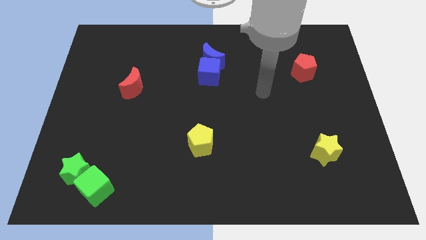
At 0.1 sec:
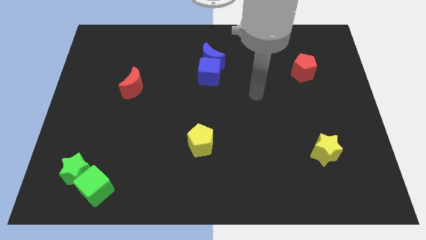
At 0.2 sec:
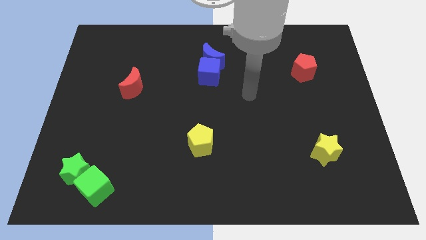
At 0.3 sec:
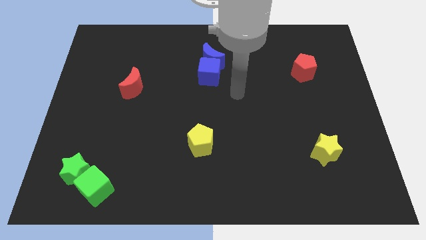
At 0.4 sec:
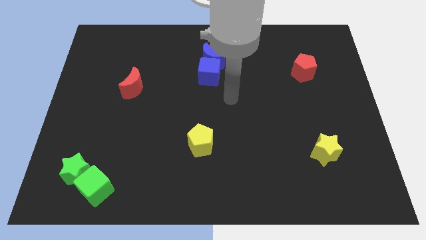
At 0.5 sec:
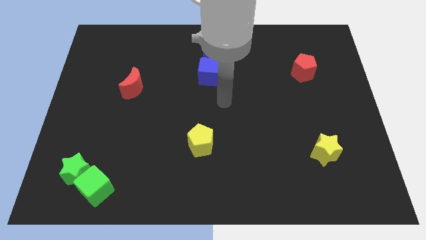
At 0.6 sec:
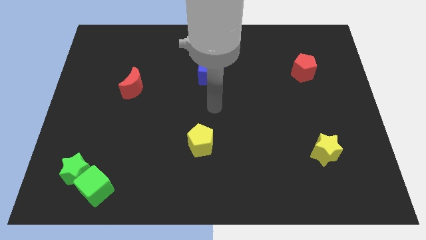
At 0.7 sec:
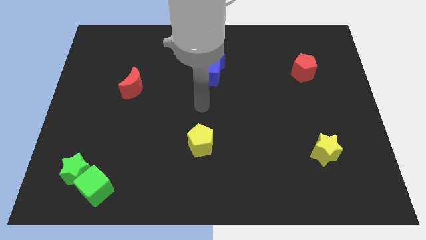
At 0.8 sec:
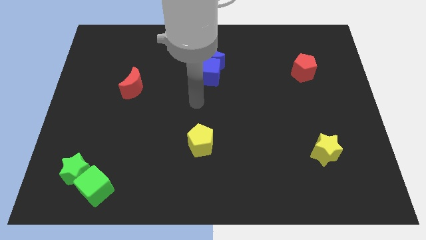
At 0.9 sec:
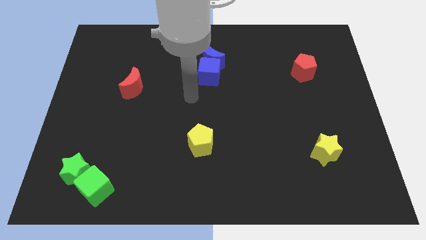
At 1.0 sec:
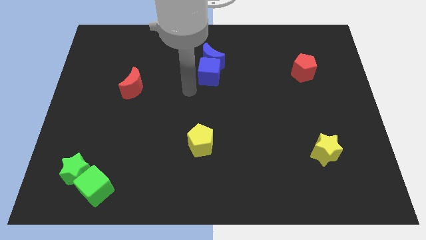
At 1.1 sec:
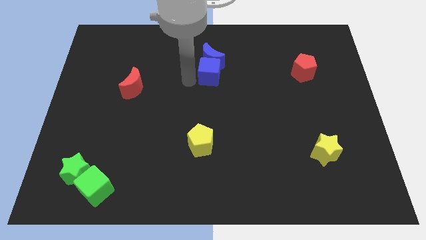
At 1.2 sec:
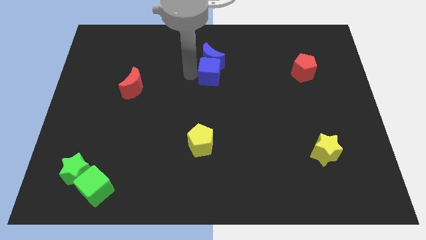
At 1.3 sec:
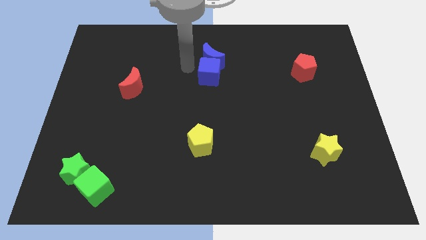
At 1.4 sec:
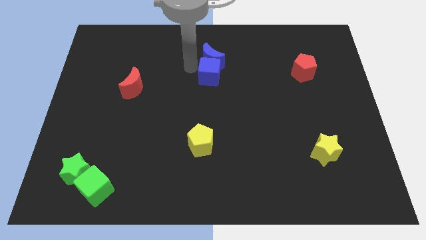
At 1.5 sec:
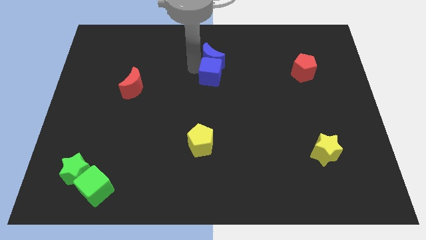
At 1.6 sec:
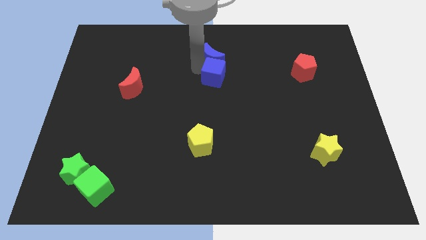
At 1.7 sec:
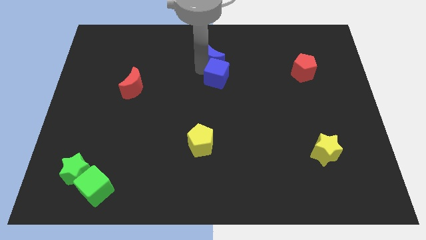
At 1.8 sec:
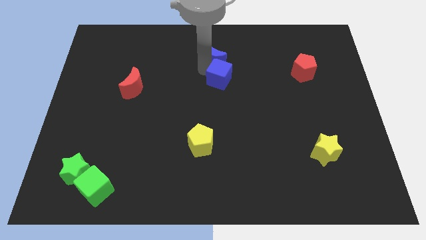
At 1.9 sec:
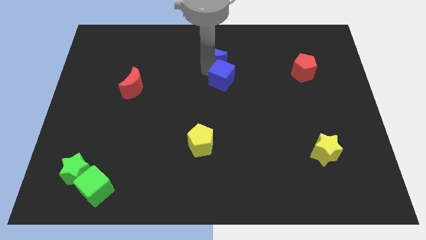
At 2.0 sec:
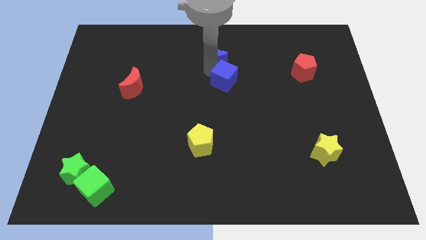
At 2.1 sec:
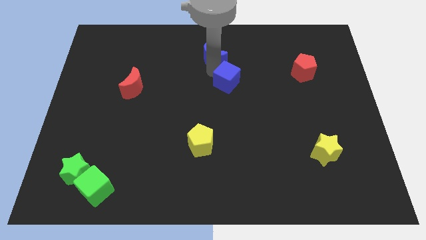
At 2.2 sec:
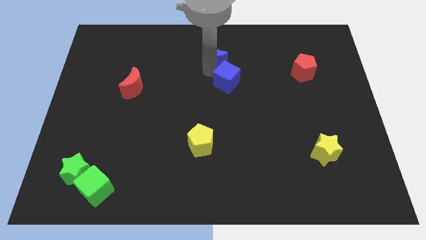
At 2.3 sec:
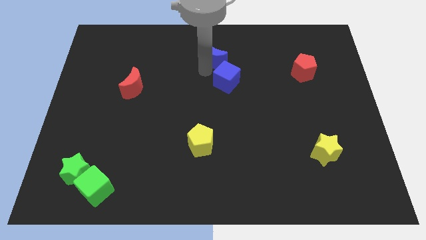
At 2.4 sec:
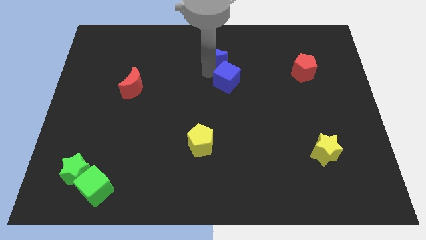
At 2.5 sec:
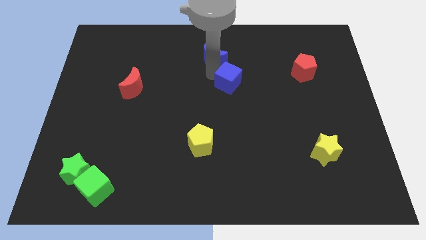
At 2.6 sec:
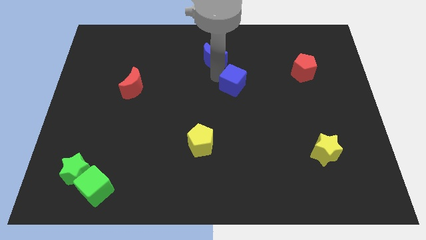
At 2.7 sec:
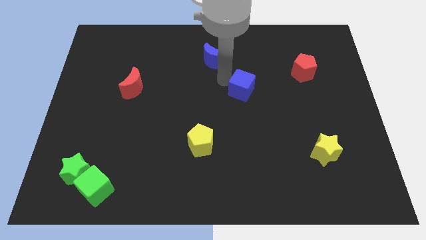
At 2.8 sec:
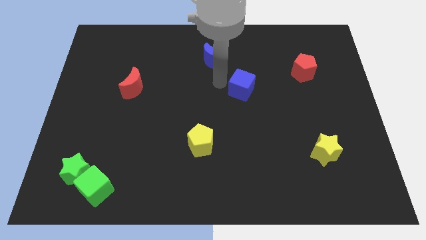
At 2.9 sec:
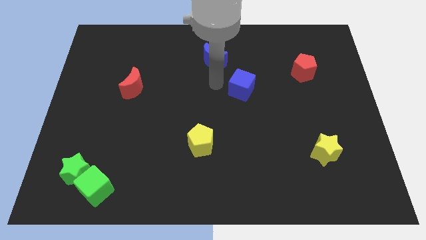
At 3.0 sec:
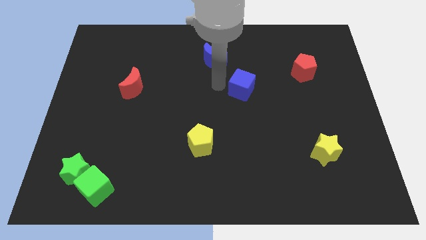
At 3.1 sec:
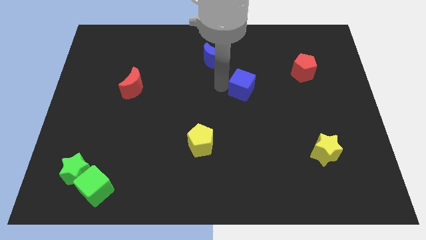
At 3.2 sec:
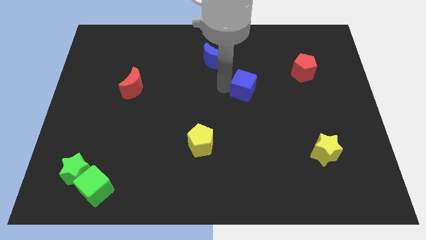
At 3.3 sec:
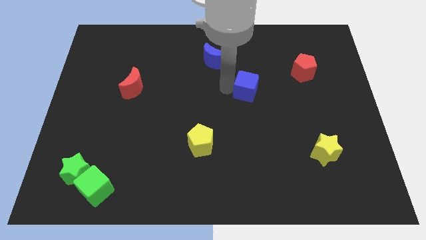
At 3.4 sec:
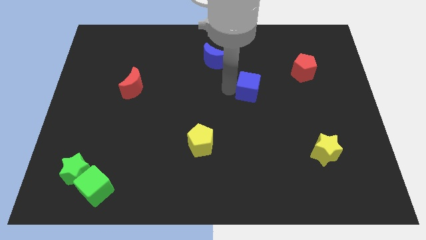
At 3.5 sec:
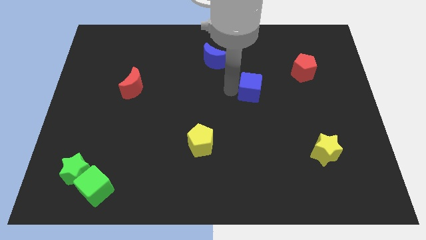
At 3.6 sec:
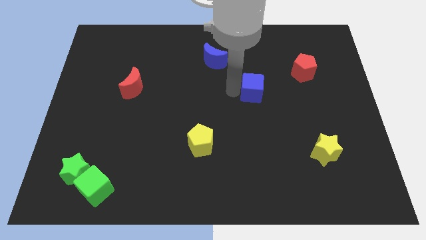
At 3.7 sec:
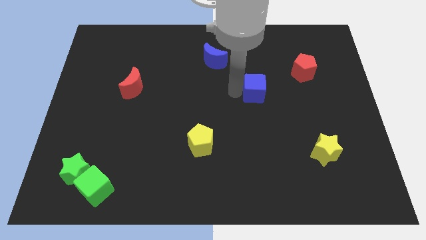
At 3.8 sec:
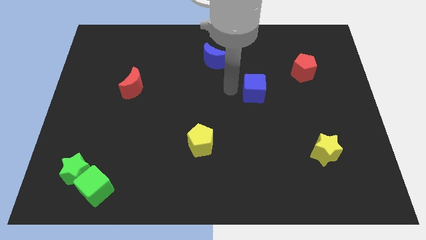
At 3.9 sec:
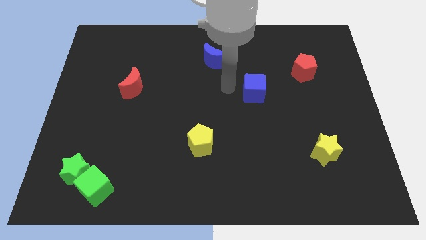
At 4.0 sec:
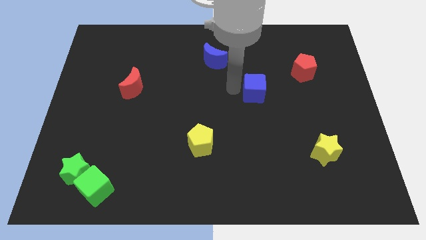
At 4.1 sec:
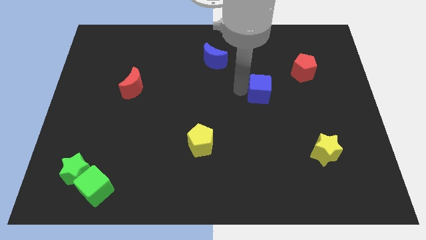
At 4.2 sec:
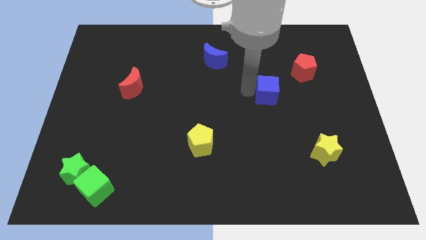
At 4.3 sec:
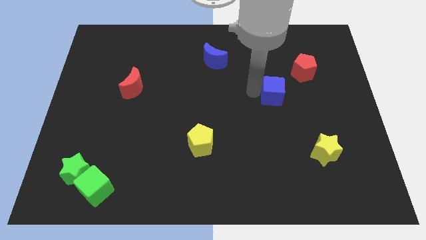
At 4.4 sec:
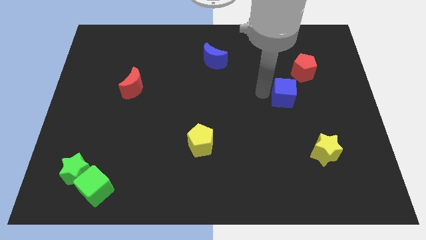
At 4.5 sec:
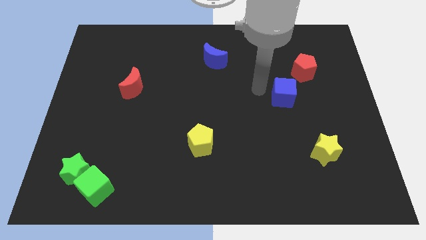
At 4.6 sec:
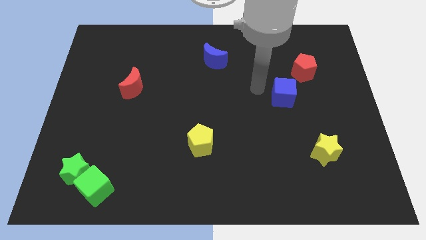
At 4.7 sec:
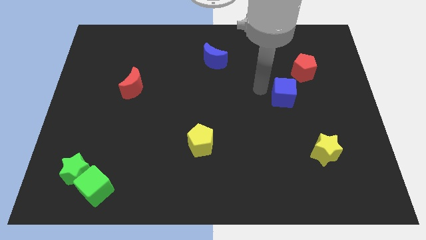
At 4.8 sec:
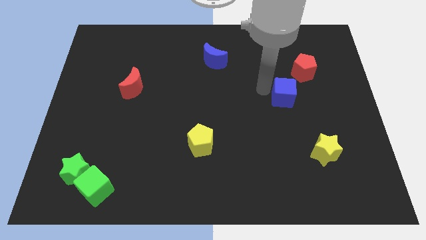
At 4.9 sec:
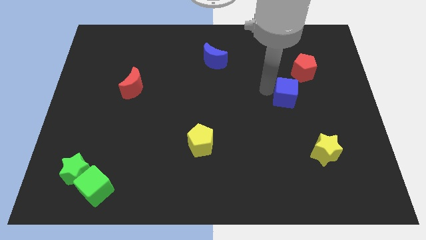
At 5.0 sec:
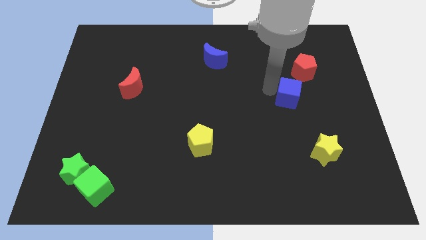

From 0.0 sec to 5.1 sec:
push the blue cube to the bottom side of the red pentagon

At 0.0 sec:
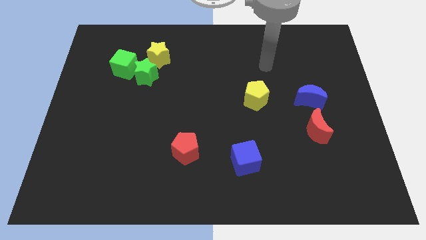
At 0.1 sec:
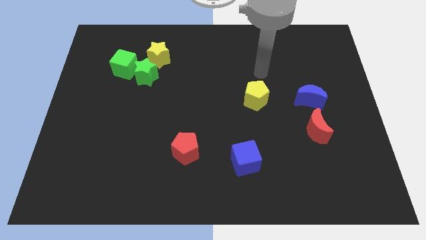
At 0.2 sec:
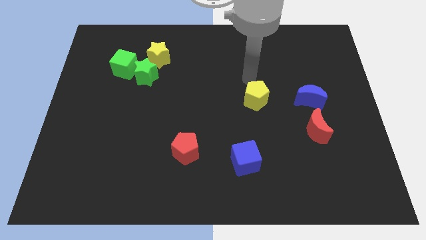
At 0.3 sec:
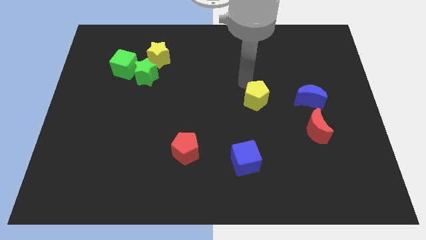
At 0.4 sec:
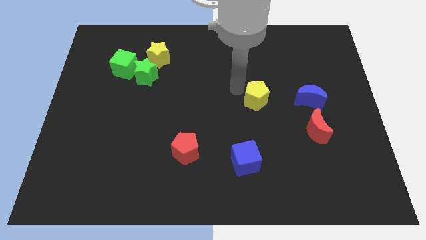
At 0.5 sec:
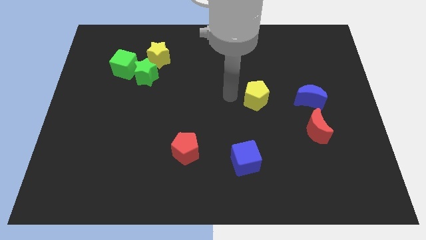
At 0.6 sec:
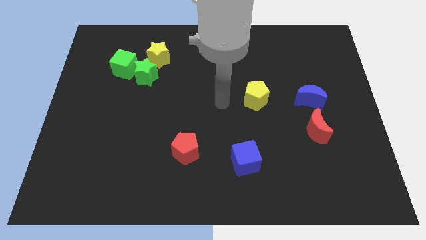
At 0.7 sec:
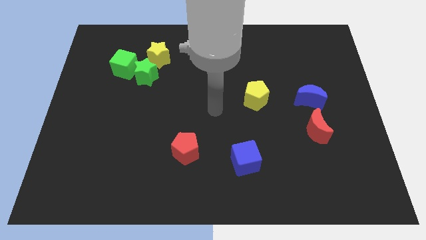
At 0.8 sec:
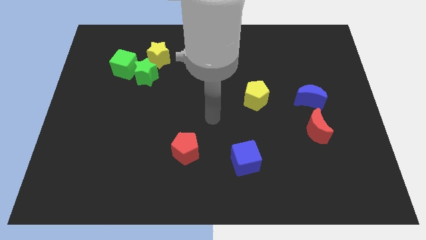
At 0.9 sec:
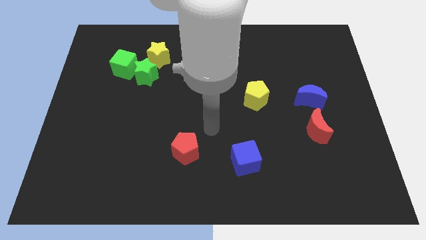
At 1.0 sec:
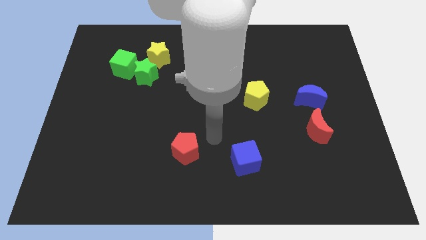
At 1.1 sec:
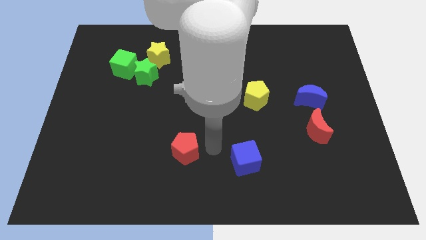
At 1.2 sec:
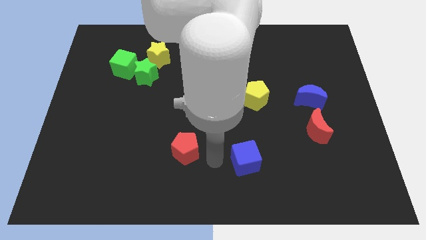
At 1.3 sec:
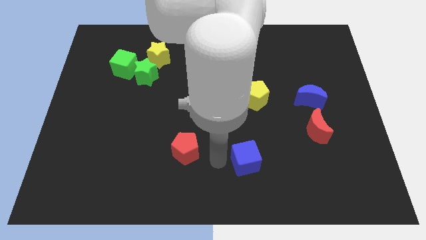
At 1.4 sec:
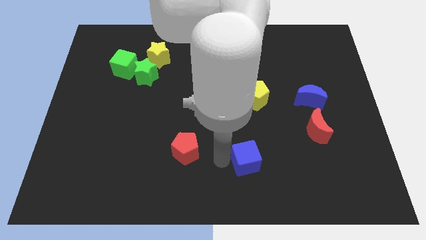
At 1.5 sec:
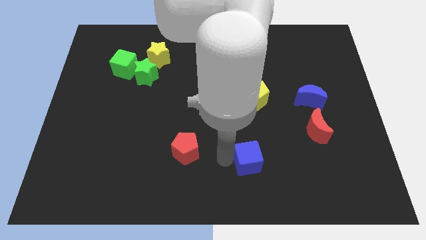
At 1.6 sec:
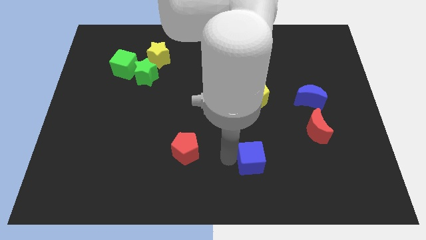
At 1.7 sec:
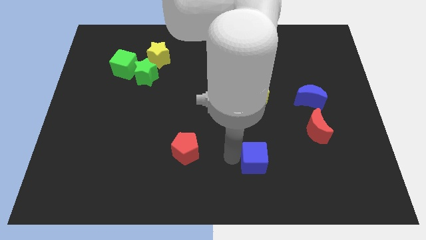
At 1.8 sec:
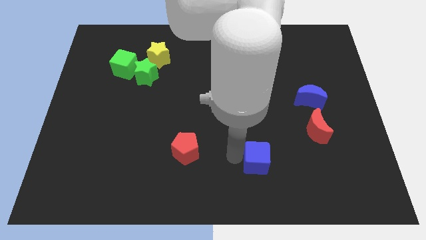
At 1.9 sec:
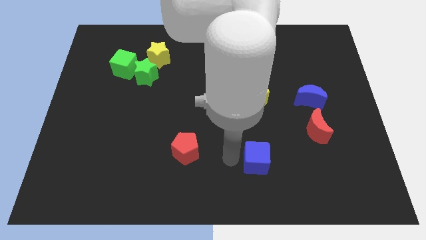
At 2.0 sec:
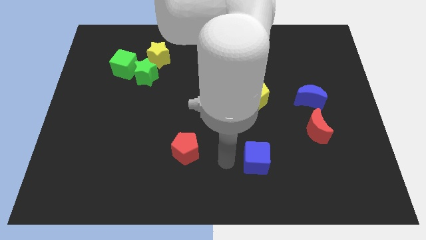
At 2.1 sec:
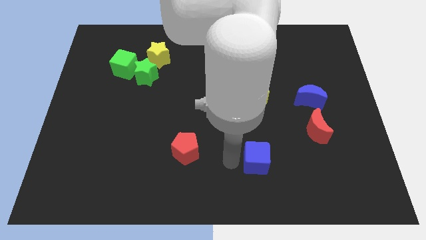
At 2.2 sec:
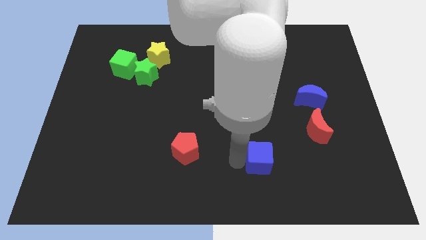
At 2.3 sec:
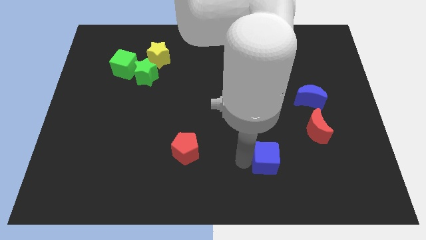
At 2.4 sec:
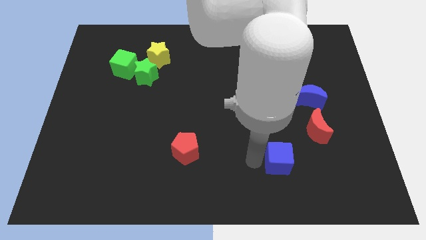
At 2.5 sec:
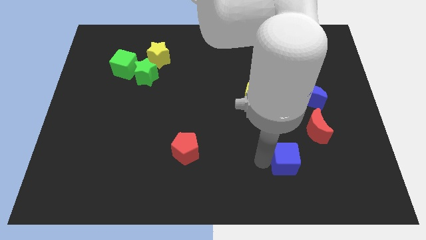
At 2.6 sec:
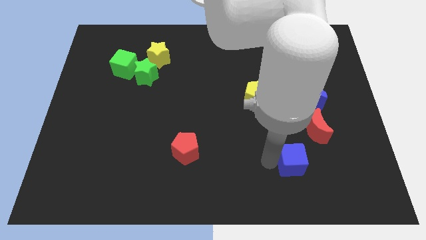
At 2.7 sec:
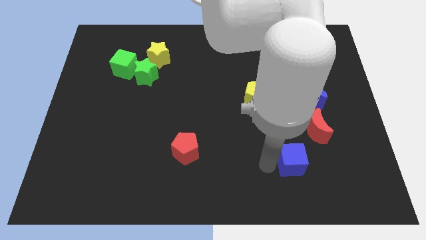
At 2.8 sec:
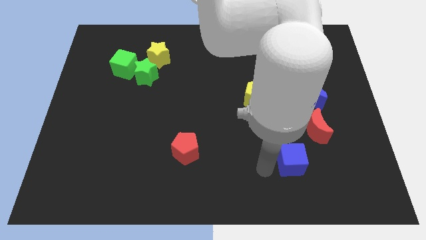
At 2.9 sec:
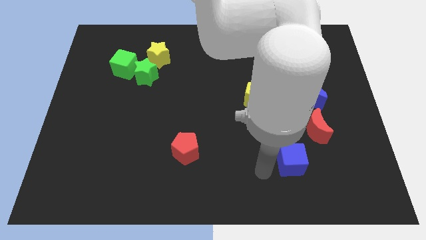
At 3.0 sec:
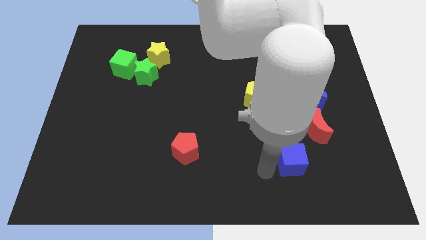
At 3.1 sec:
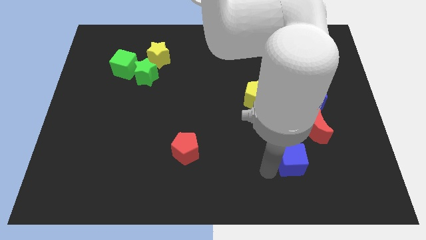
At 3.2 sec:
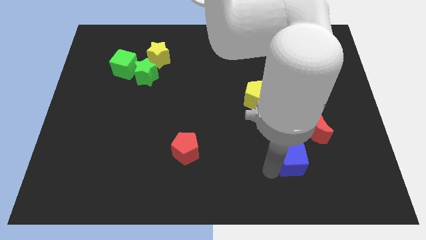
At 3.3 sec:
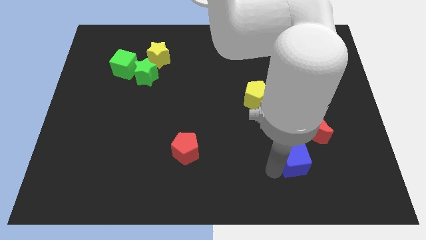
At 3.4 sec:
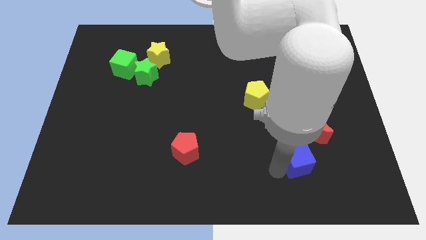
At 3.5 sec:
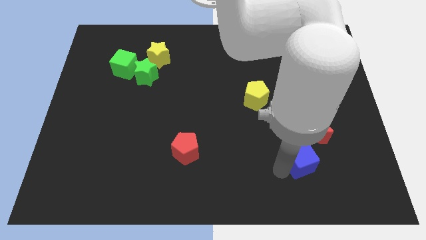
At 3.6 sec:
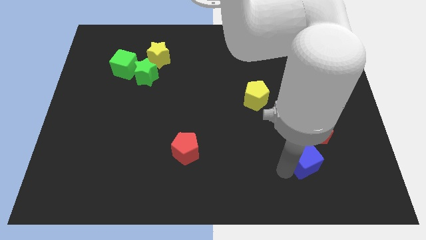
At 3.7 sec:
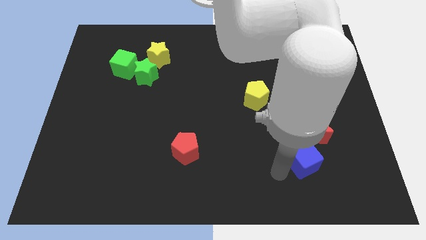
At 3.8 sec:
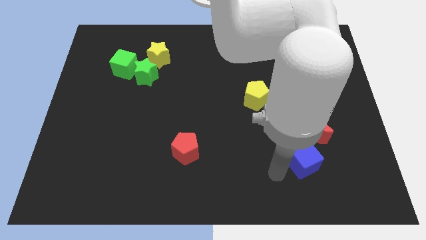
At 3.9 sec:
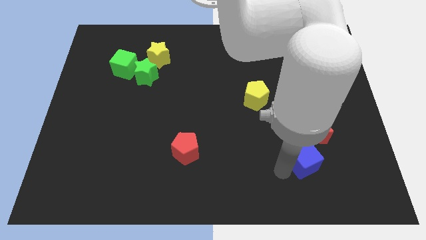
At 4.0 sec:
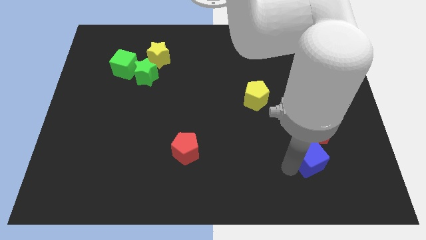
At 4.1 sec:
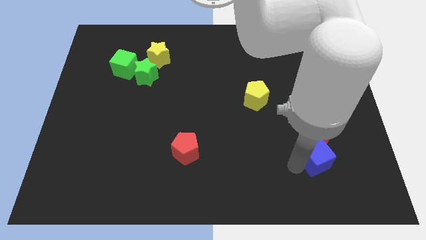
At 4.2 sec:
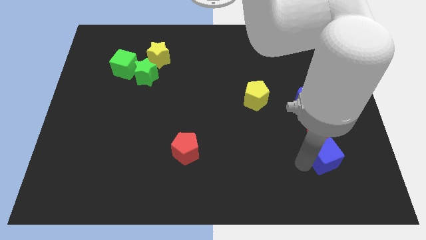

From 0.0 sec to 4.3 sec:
put the blue cube diagonally down and to the right of the red moon
